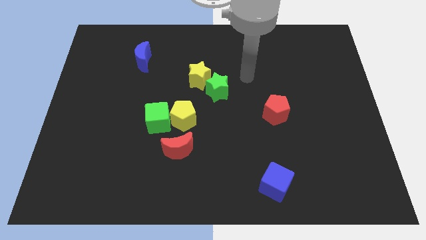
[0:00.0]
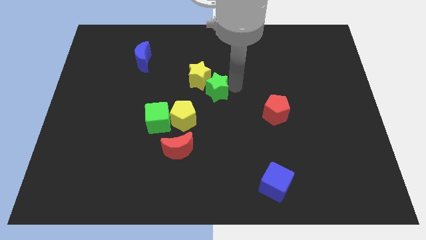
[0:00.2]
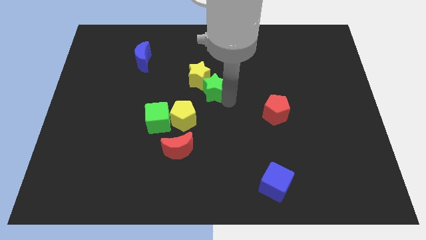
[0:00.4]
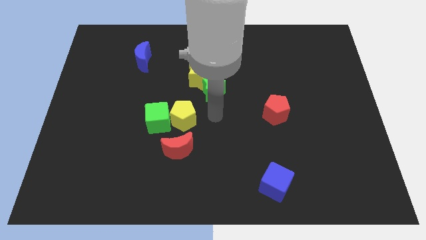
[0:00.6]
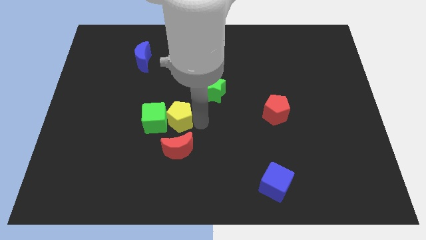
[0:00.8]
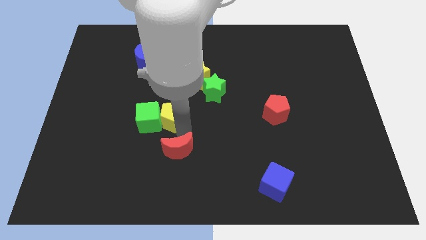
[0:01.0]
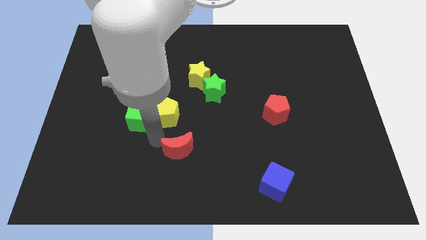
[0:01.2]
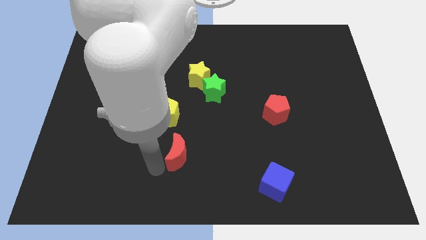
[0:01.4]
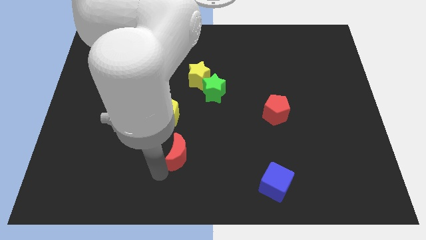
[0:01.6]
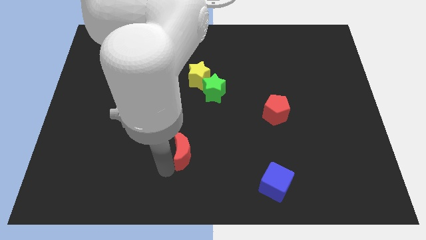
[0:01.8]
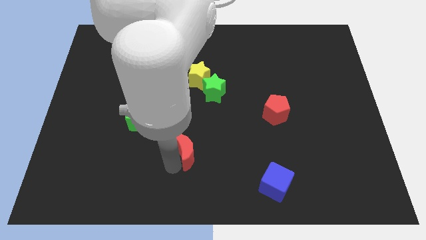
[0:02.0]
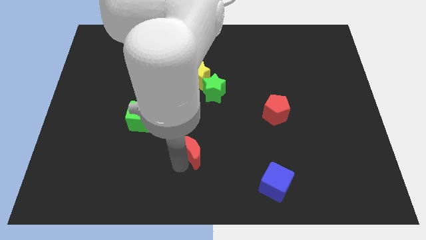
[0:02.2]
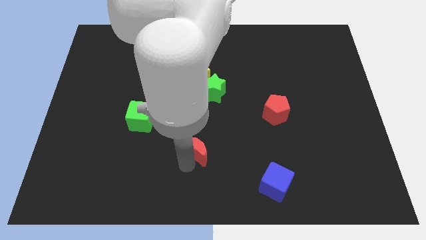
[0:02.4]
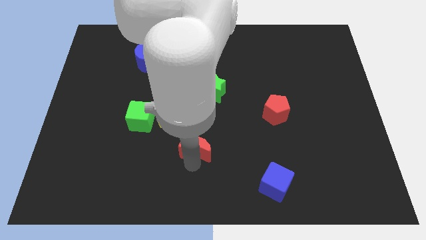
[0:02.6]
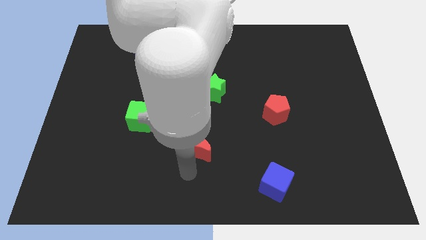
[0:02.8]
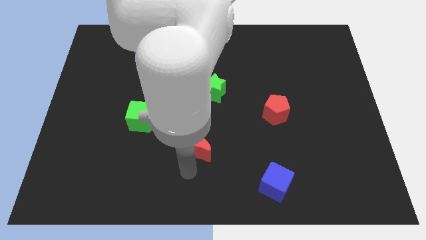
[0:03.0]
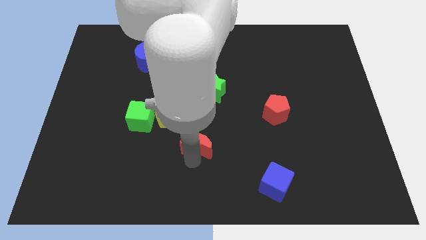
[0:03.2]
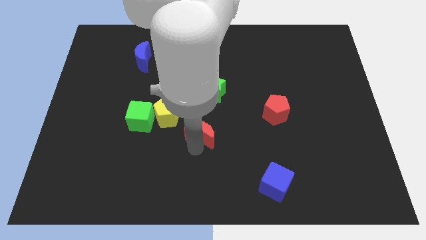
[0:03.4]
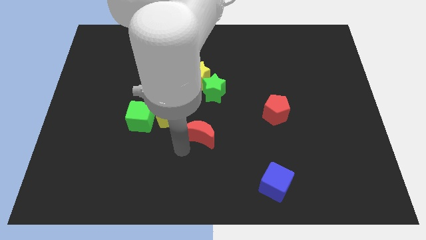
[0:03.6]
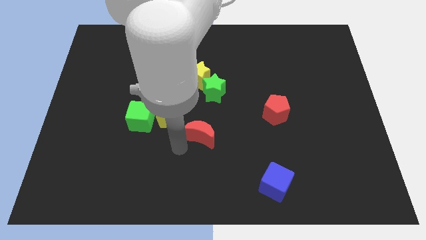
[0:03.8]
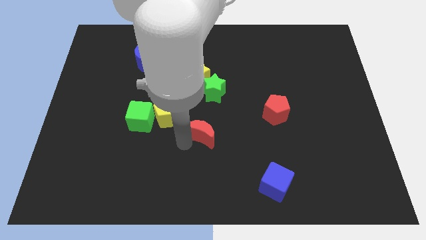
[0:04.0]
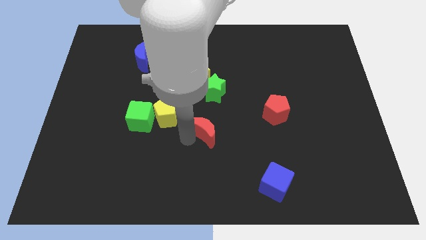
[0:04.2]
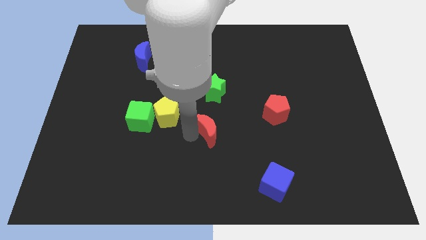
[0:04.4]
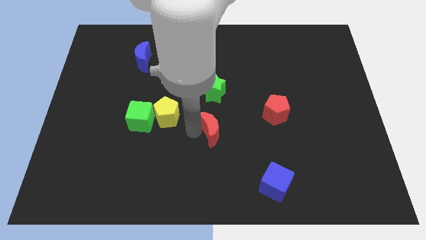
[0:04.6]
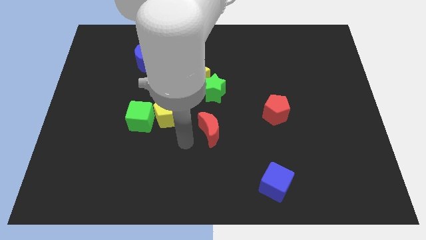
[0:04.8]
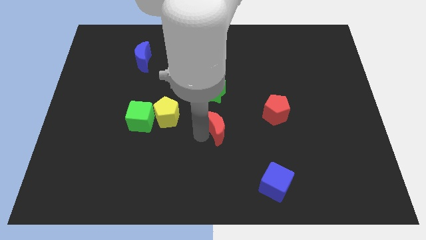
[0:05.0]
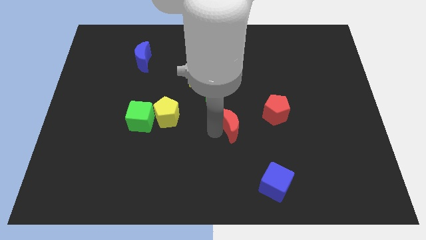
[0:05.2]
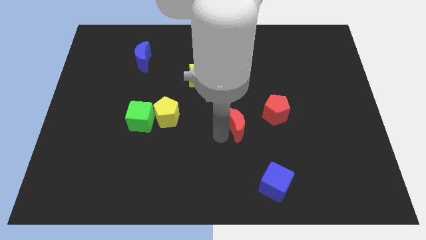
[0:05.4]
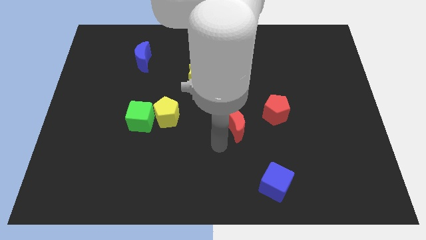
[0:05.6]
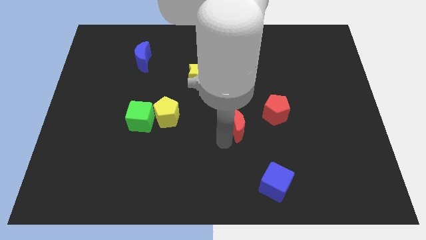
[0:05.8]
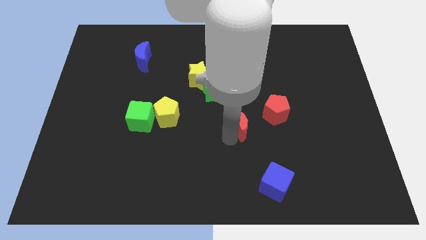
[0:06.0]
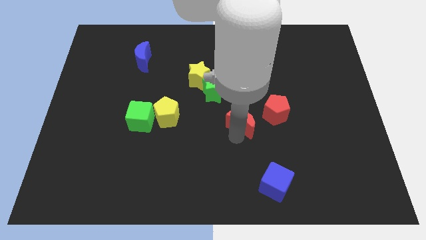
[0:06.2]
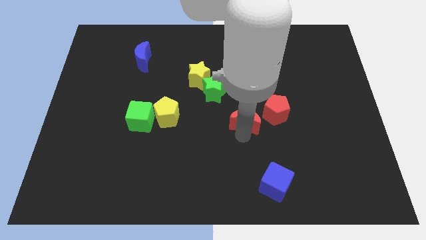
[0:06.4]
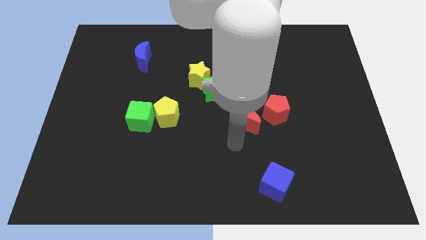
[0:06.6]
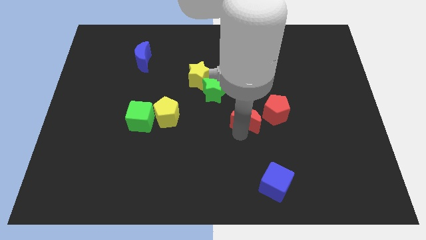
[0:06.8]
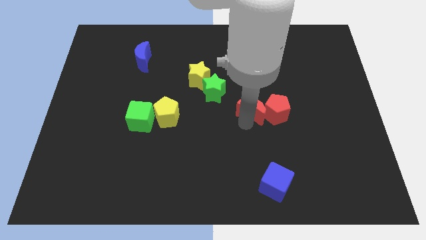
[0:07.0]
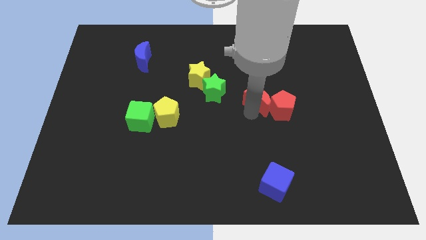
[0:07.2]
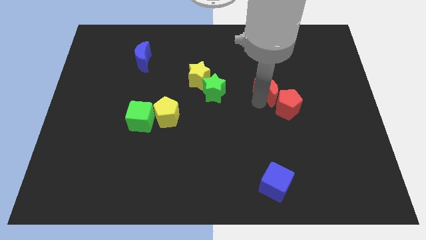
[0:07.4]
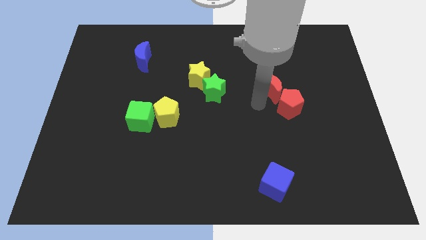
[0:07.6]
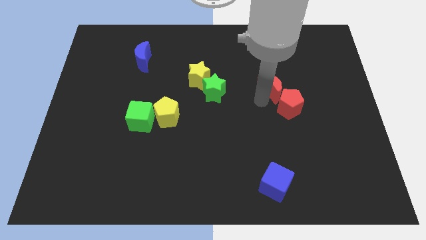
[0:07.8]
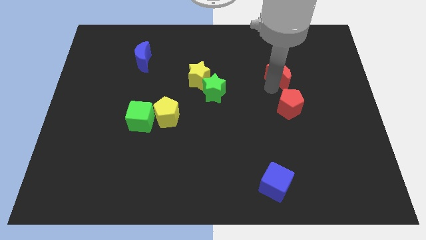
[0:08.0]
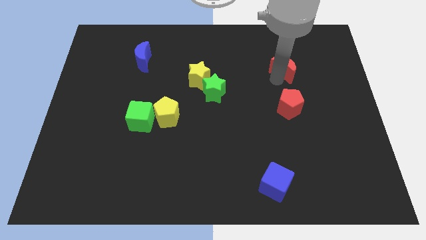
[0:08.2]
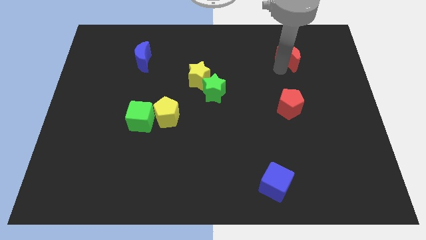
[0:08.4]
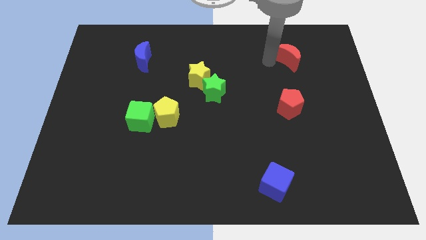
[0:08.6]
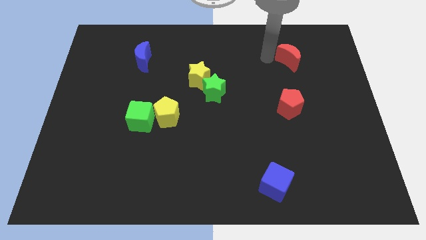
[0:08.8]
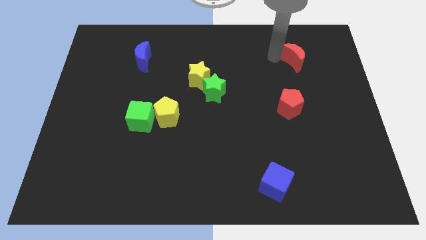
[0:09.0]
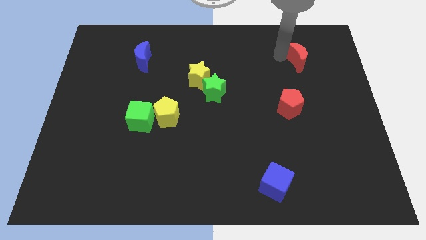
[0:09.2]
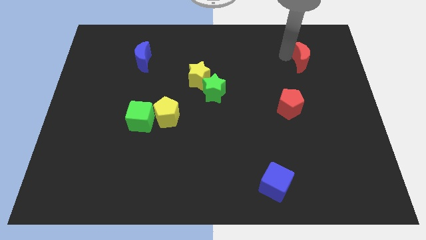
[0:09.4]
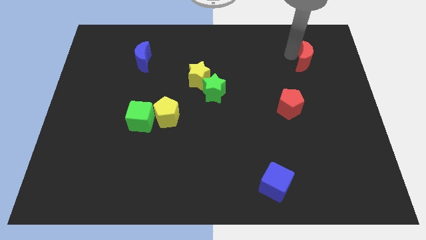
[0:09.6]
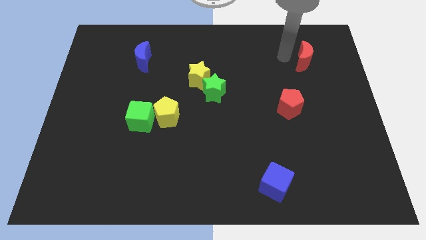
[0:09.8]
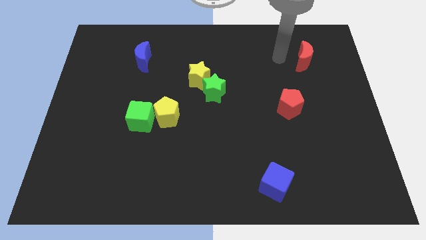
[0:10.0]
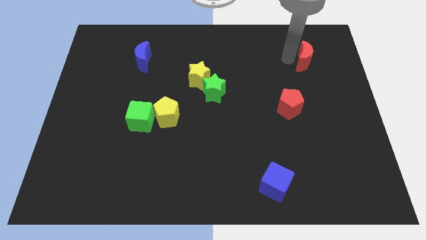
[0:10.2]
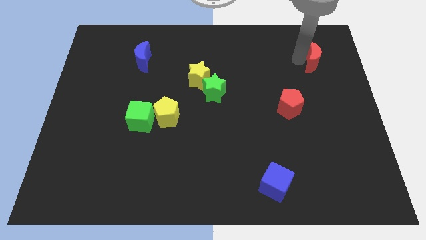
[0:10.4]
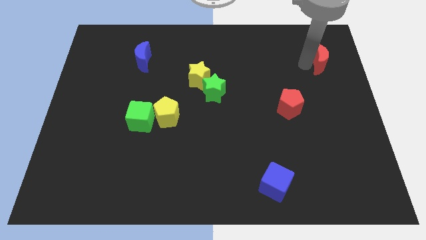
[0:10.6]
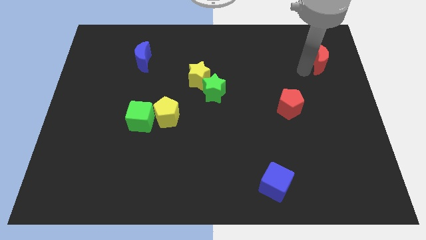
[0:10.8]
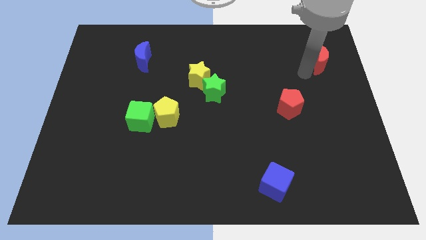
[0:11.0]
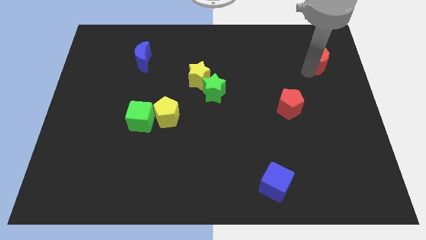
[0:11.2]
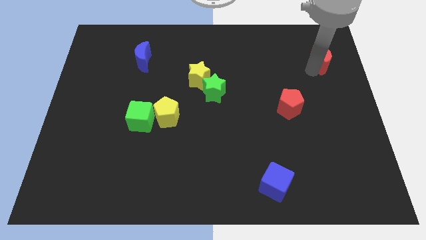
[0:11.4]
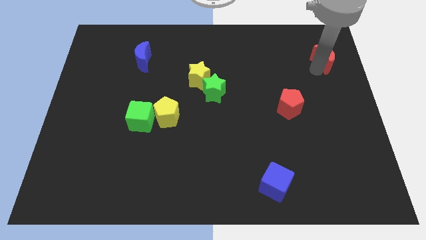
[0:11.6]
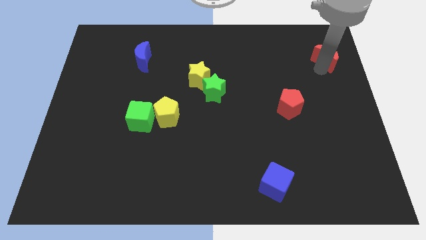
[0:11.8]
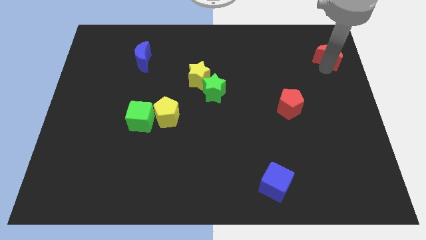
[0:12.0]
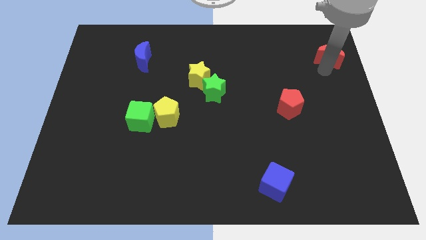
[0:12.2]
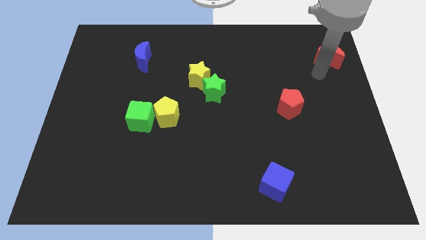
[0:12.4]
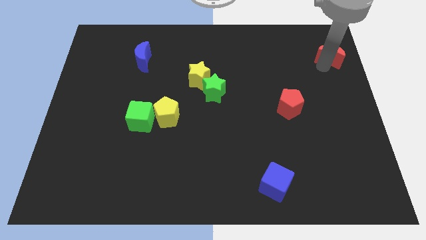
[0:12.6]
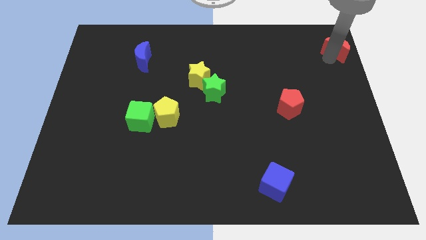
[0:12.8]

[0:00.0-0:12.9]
move the red moon to the top right

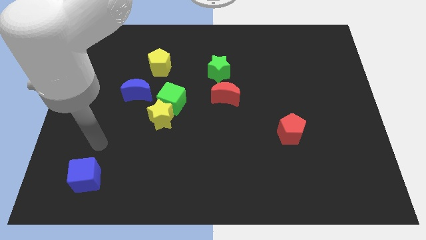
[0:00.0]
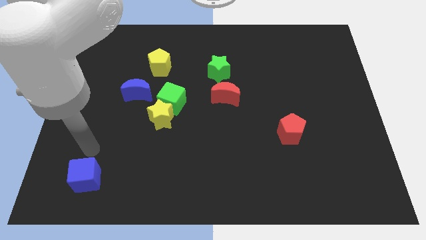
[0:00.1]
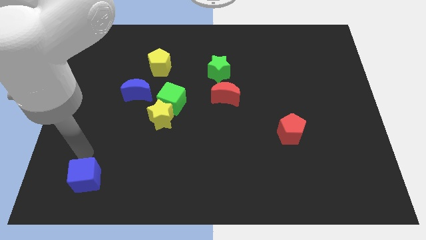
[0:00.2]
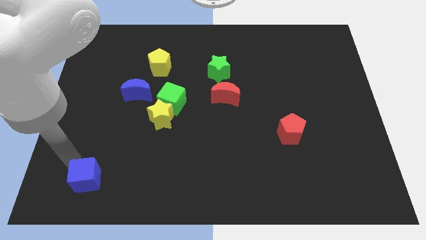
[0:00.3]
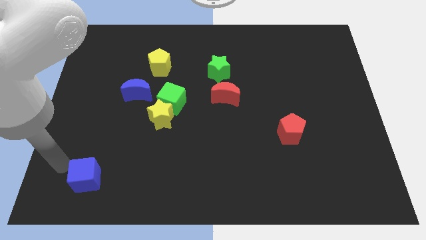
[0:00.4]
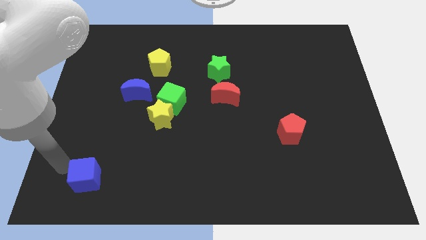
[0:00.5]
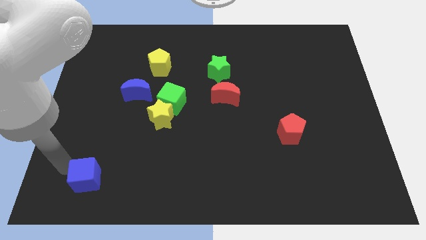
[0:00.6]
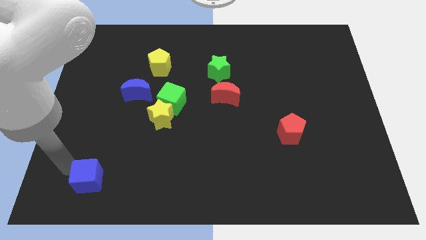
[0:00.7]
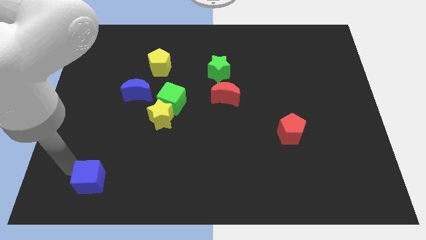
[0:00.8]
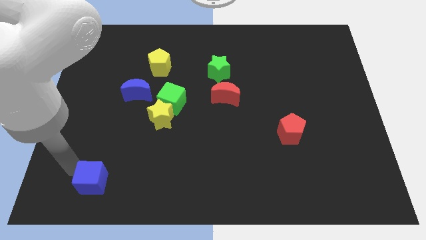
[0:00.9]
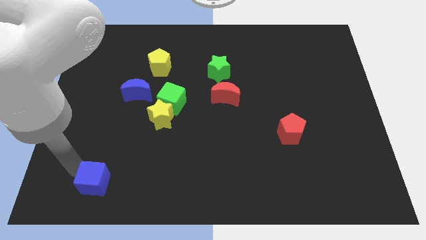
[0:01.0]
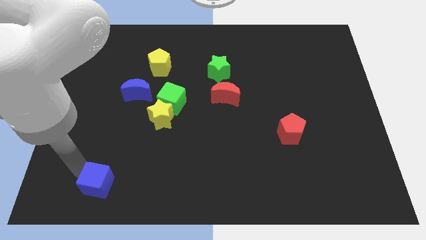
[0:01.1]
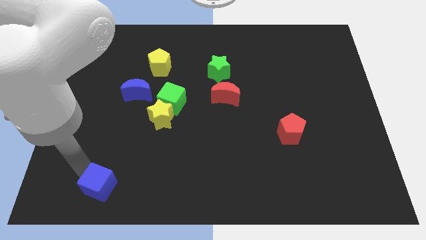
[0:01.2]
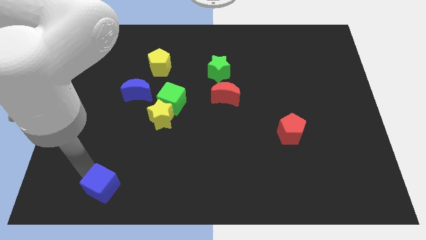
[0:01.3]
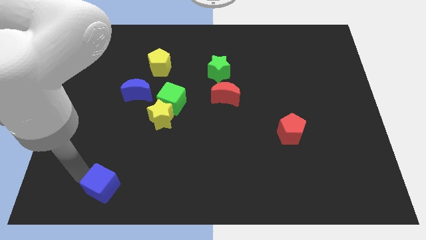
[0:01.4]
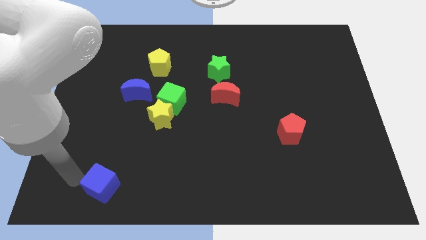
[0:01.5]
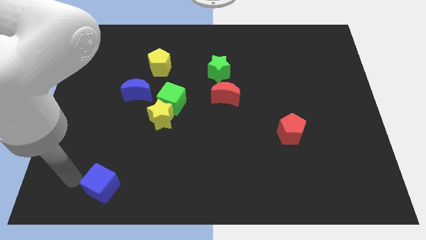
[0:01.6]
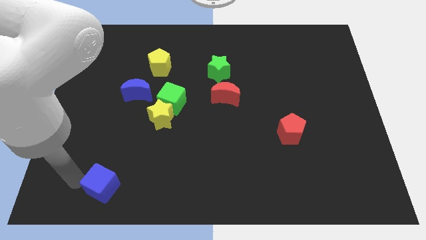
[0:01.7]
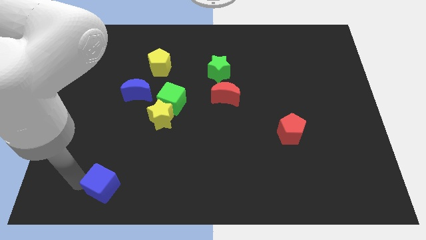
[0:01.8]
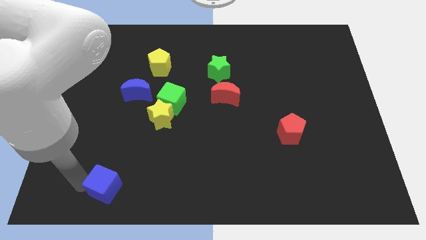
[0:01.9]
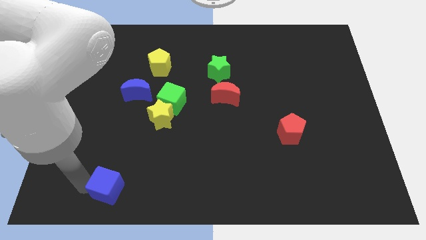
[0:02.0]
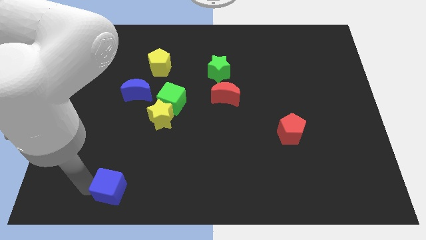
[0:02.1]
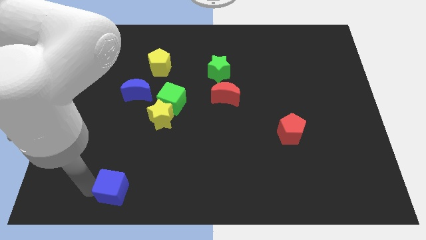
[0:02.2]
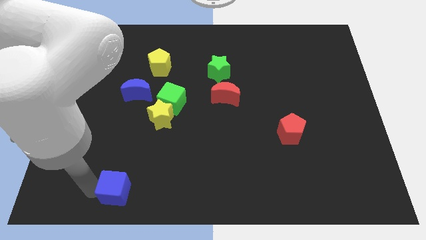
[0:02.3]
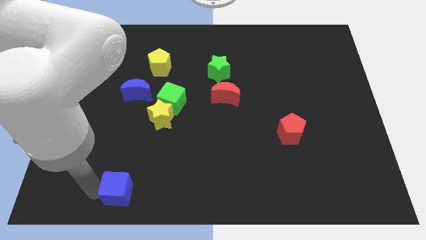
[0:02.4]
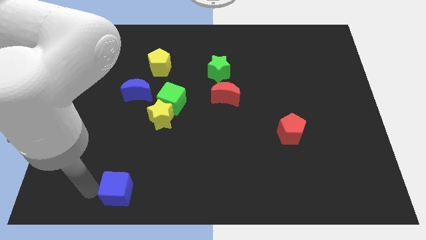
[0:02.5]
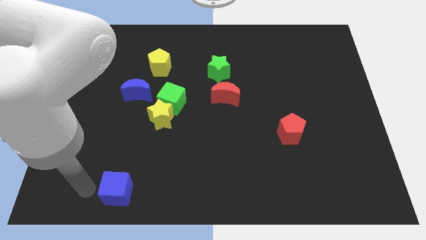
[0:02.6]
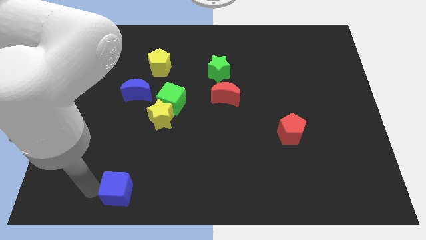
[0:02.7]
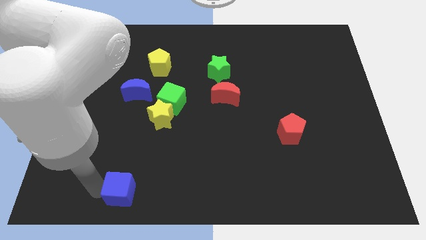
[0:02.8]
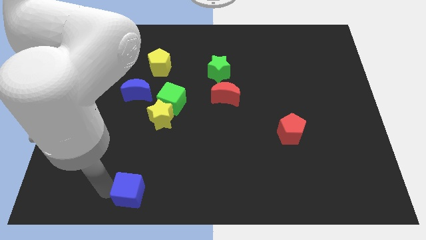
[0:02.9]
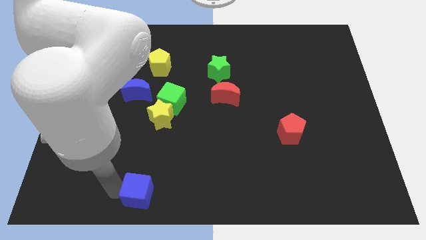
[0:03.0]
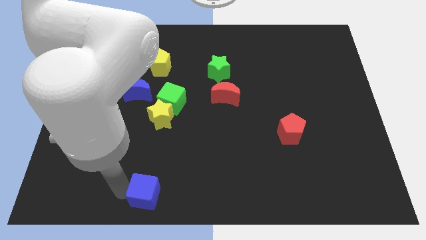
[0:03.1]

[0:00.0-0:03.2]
put the blue cube to the bottom
